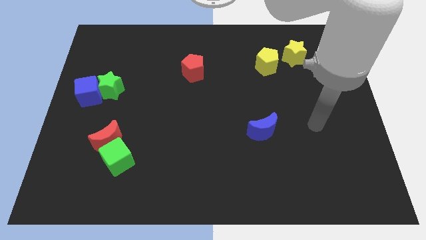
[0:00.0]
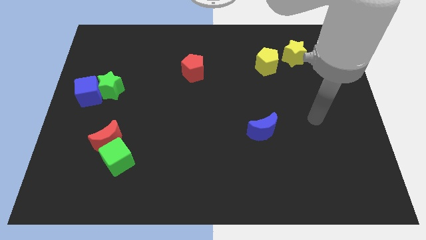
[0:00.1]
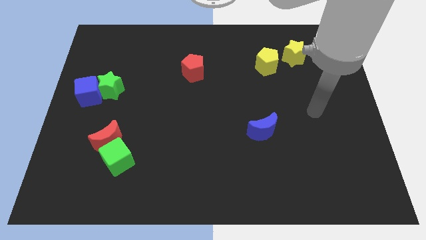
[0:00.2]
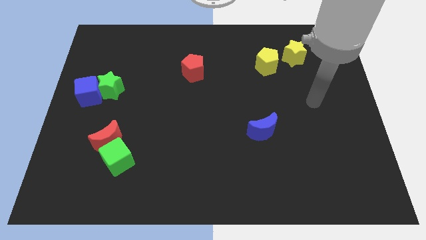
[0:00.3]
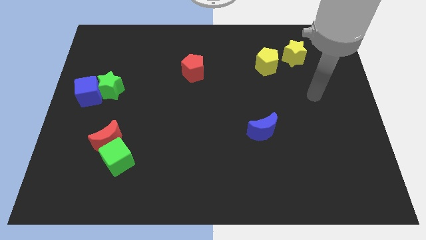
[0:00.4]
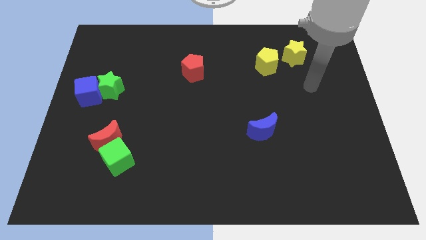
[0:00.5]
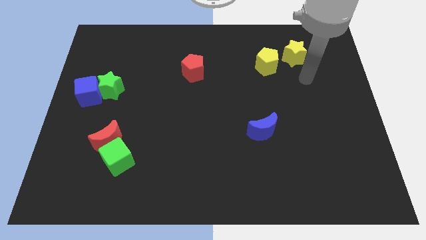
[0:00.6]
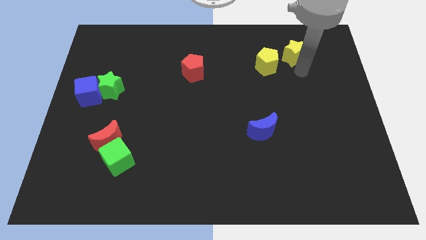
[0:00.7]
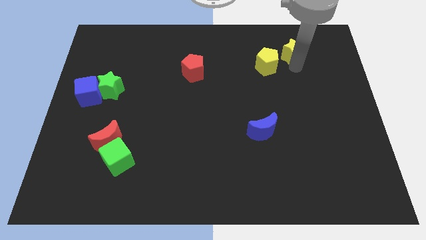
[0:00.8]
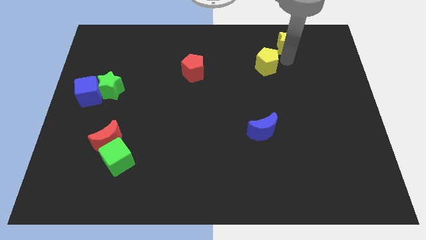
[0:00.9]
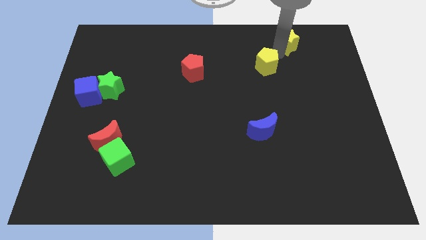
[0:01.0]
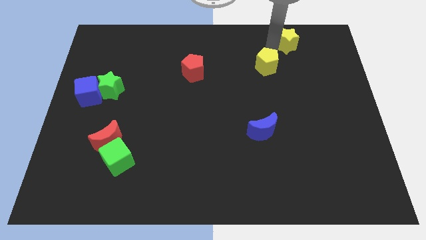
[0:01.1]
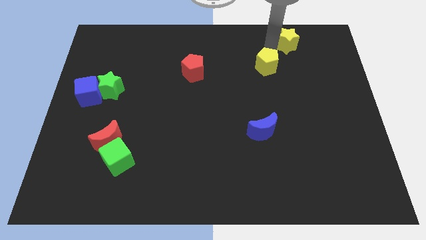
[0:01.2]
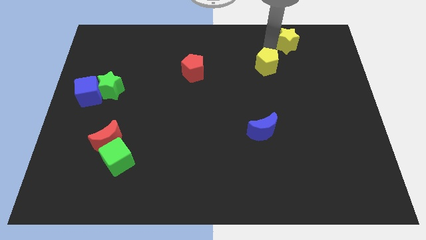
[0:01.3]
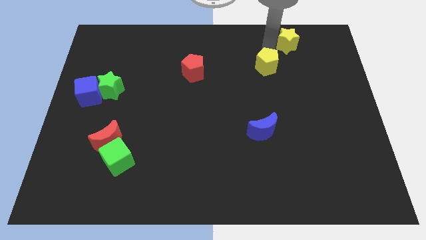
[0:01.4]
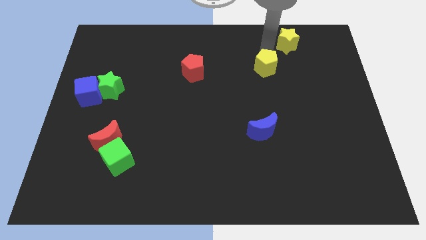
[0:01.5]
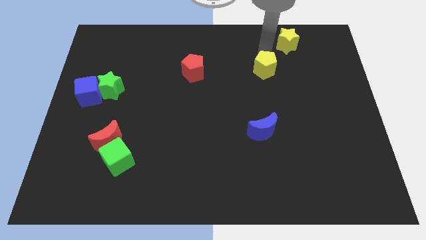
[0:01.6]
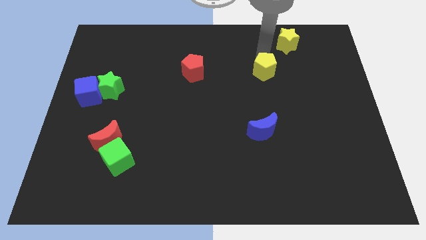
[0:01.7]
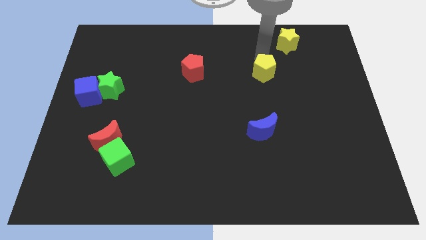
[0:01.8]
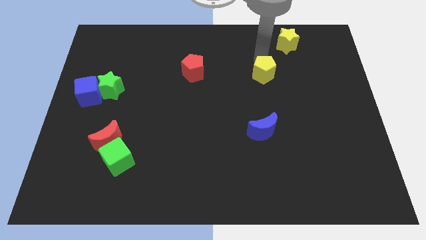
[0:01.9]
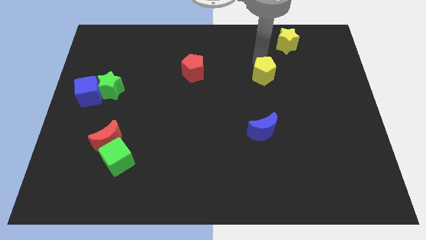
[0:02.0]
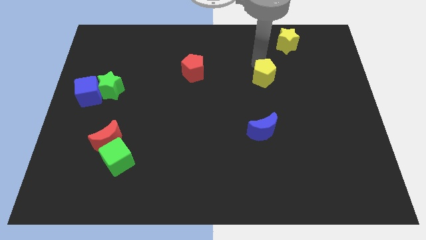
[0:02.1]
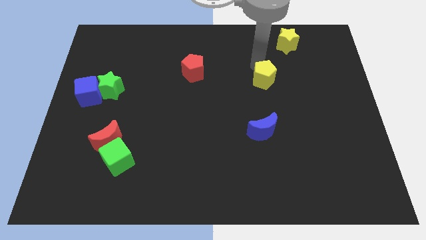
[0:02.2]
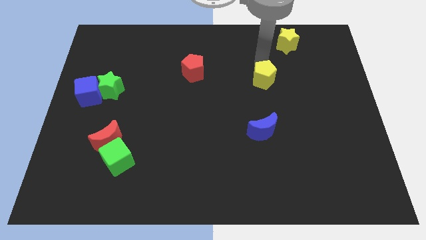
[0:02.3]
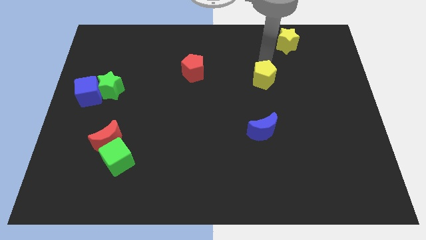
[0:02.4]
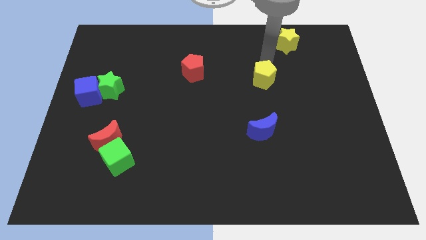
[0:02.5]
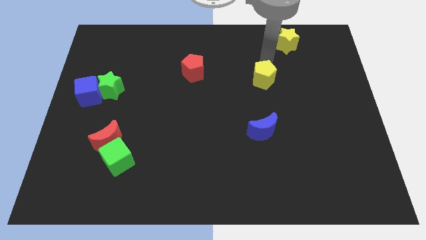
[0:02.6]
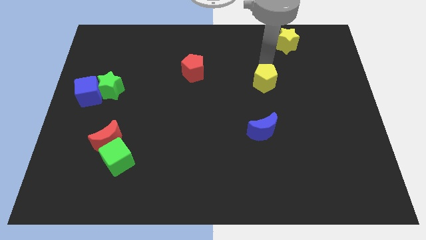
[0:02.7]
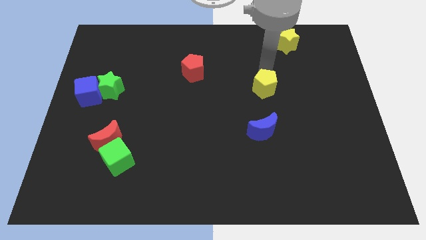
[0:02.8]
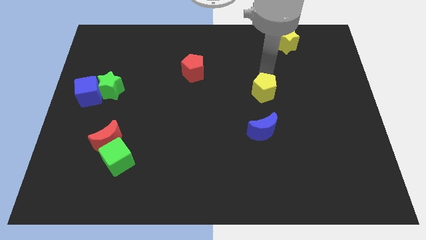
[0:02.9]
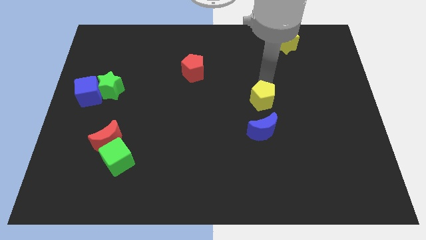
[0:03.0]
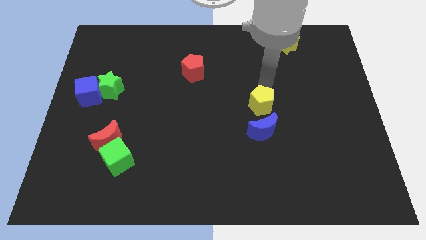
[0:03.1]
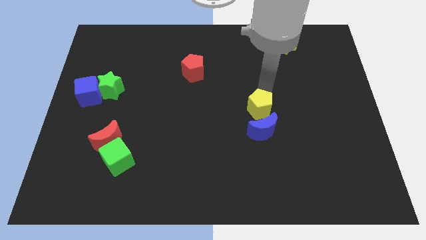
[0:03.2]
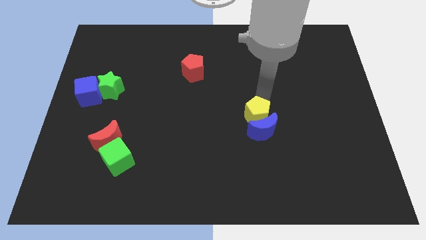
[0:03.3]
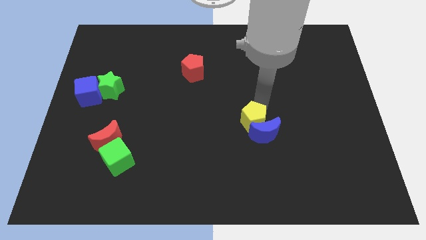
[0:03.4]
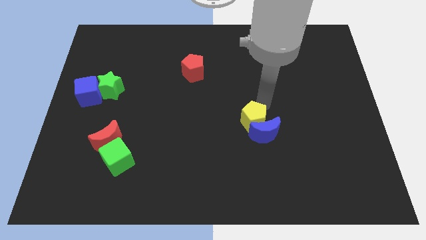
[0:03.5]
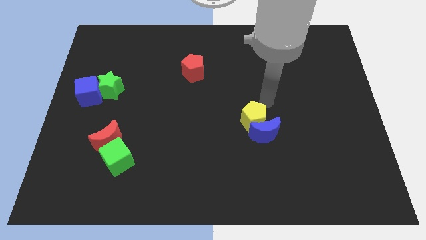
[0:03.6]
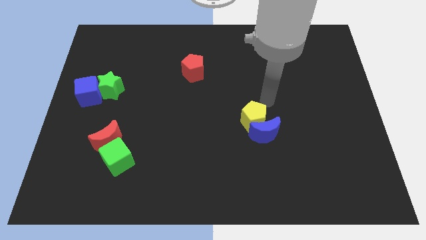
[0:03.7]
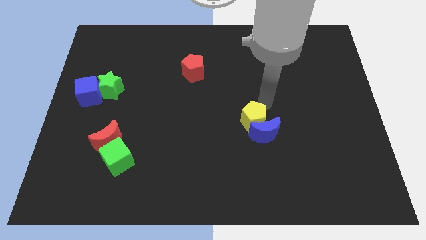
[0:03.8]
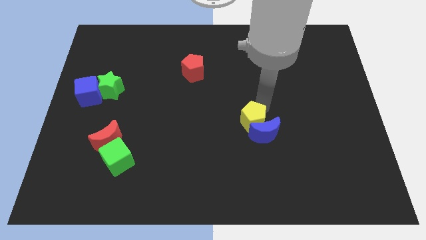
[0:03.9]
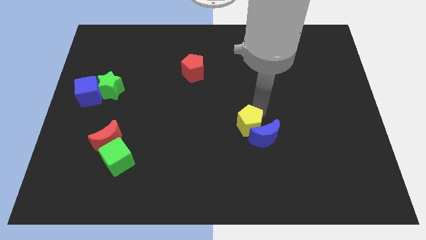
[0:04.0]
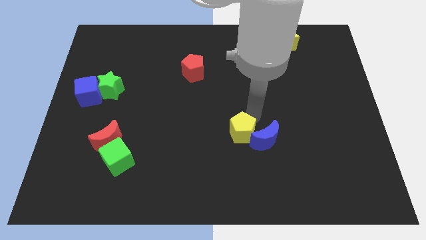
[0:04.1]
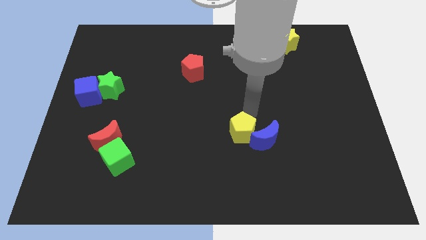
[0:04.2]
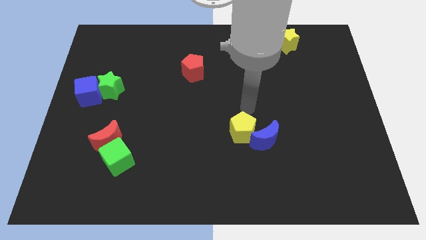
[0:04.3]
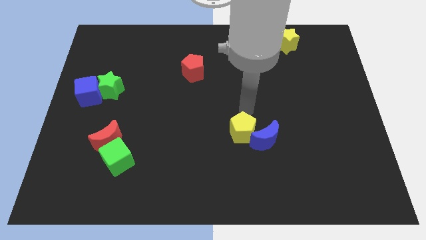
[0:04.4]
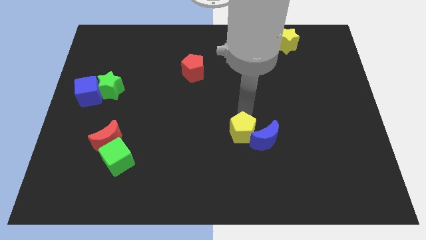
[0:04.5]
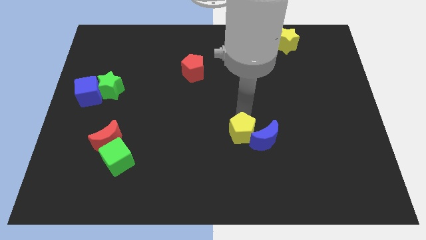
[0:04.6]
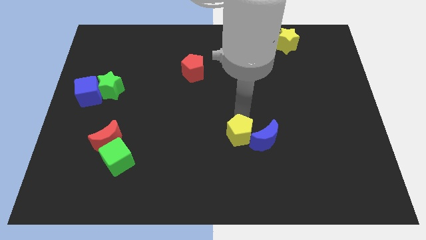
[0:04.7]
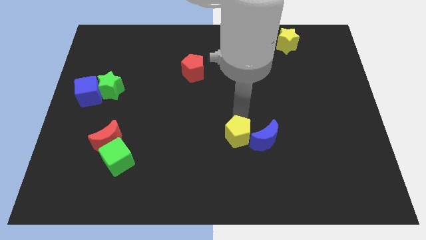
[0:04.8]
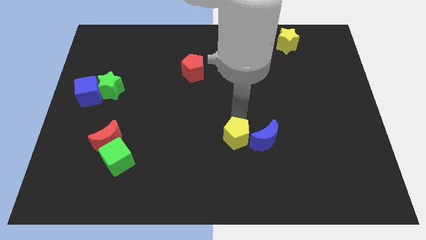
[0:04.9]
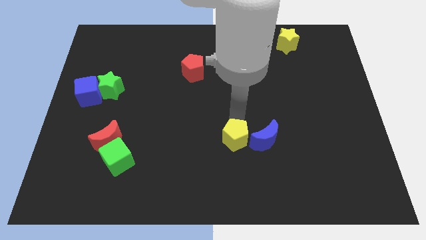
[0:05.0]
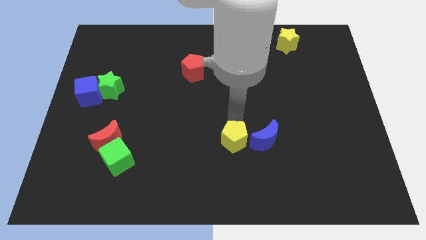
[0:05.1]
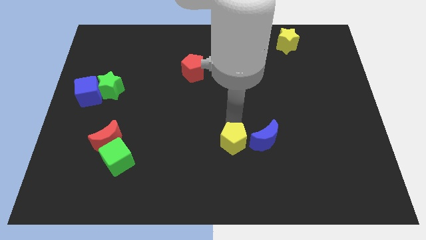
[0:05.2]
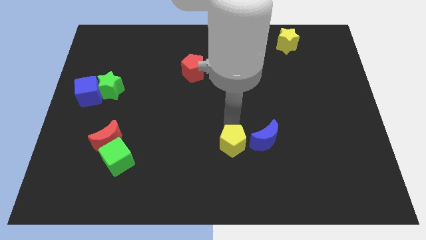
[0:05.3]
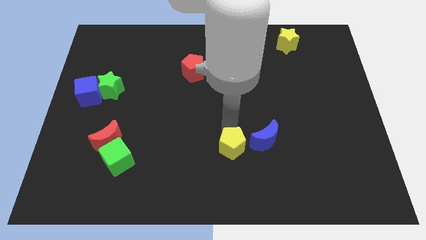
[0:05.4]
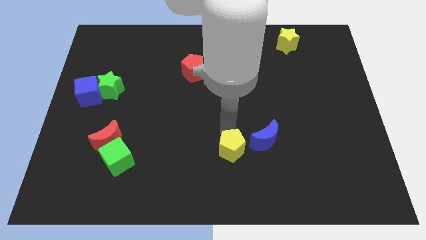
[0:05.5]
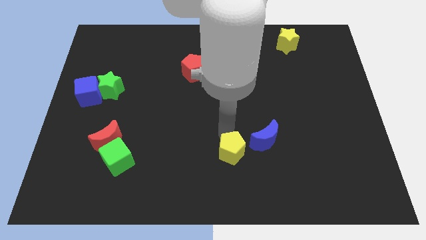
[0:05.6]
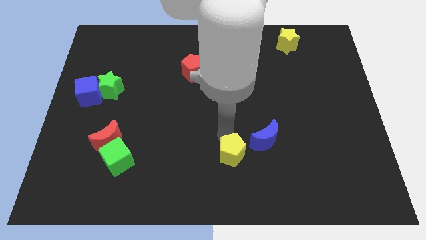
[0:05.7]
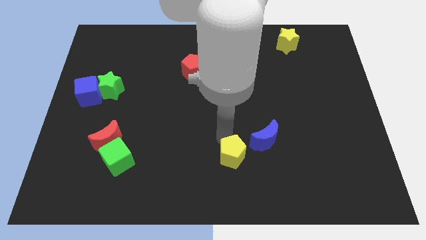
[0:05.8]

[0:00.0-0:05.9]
push the yellow pentagon to the bottom
